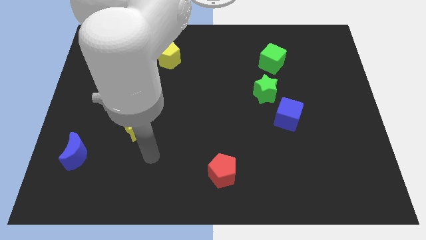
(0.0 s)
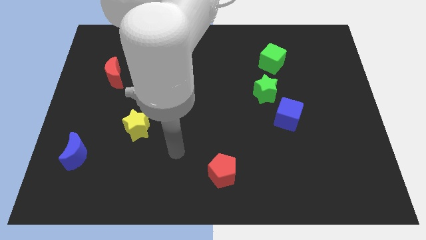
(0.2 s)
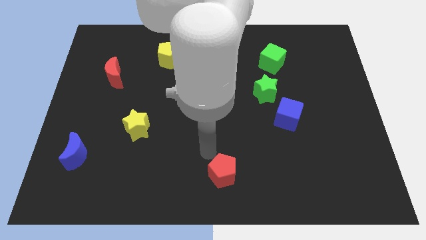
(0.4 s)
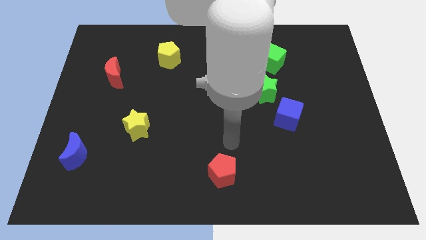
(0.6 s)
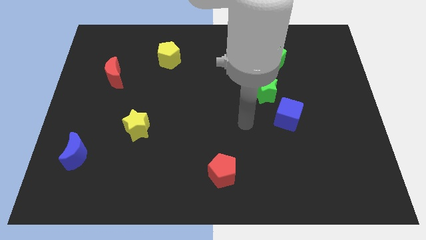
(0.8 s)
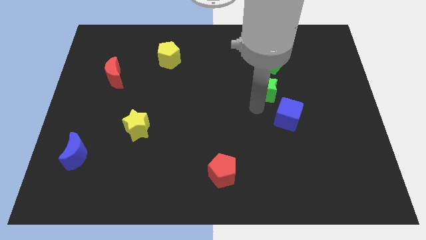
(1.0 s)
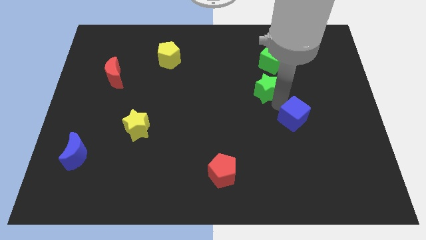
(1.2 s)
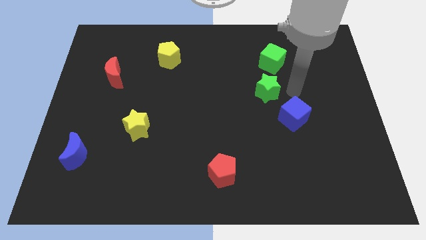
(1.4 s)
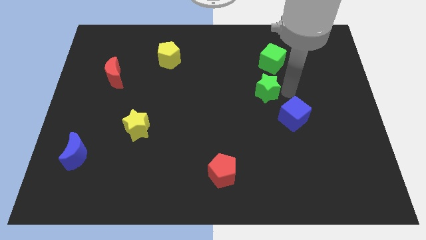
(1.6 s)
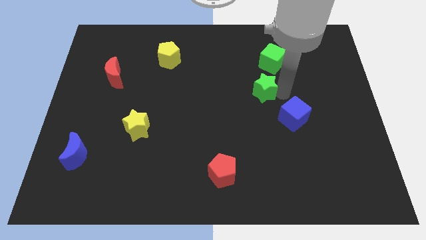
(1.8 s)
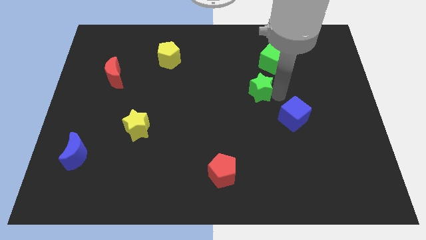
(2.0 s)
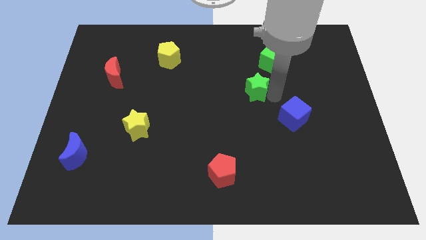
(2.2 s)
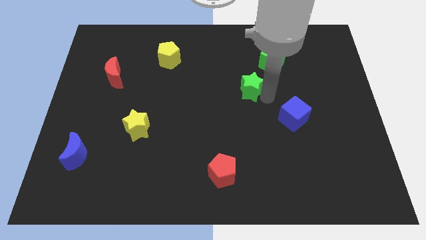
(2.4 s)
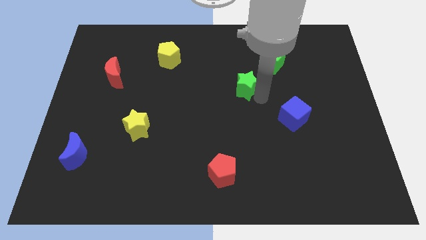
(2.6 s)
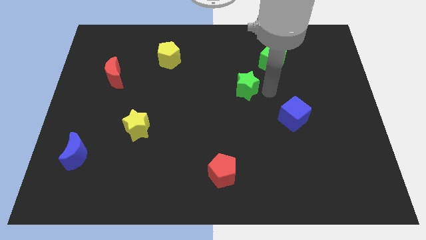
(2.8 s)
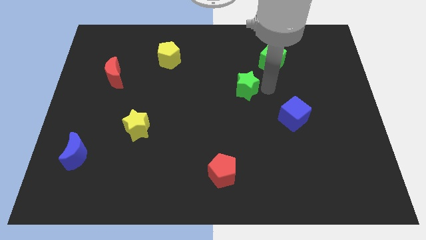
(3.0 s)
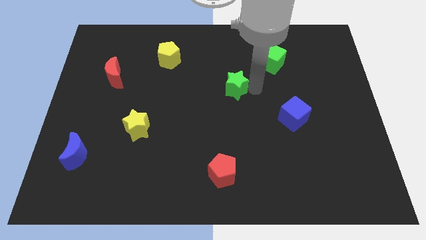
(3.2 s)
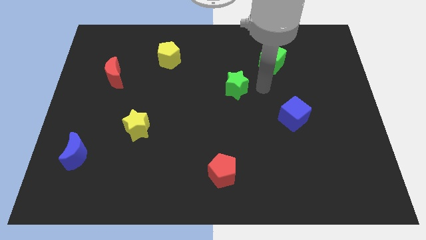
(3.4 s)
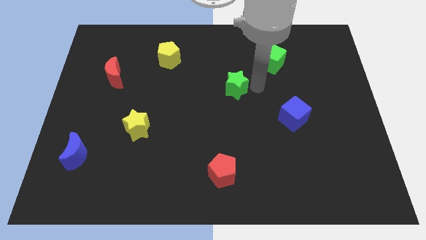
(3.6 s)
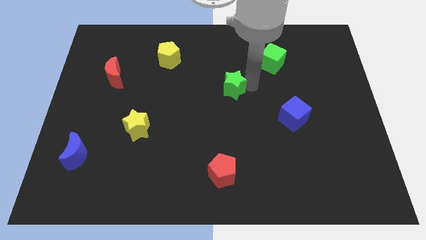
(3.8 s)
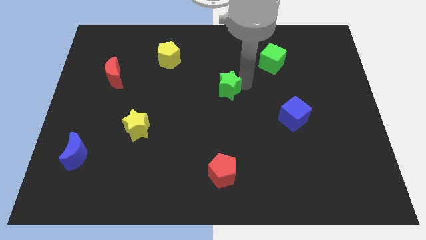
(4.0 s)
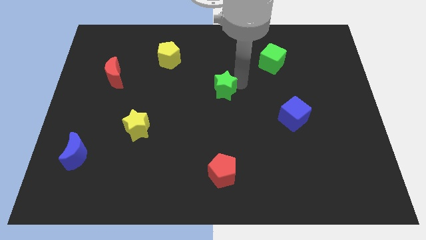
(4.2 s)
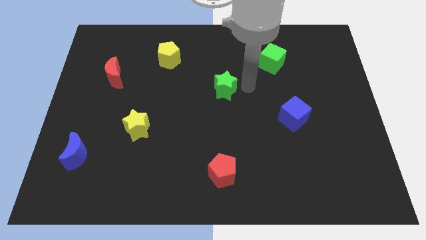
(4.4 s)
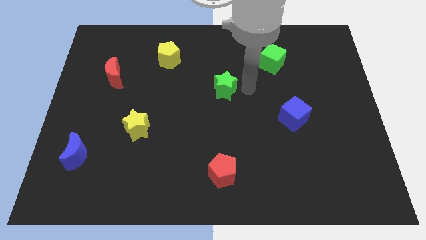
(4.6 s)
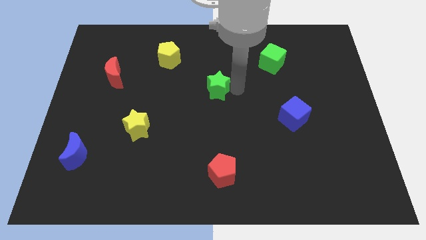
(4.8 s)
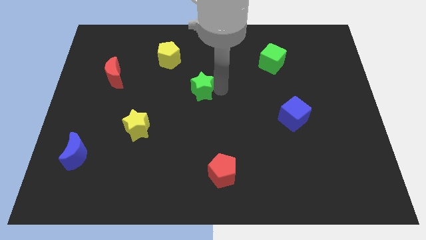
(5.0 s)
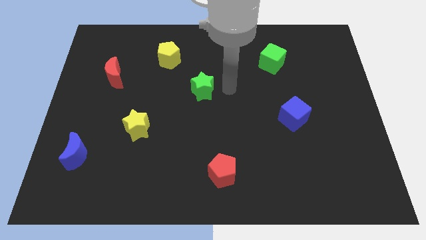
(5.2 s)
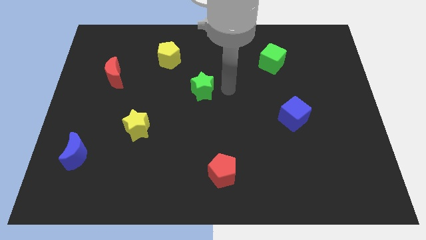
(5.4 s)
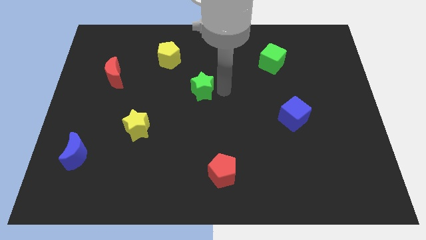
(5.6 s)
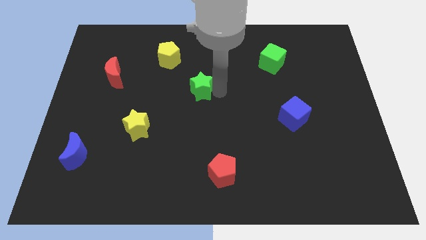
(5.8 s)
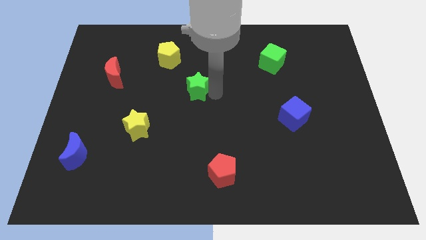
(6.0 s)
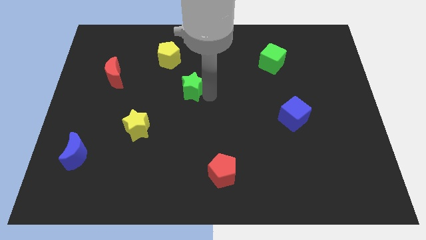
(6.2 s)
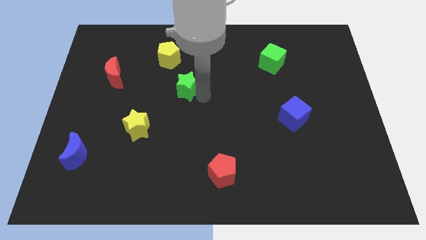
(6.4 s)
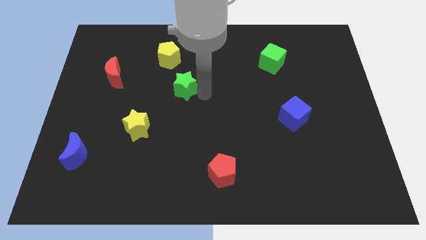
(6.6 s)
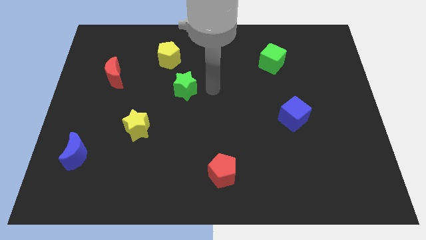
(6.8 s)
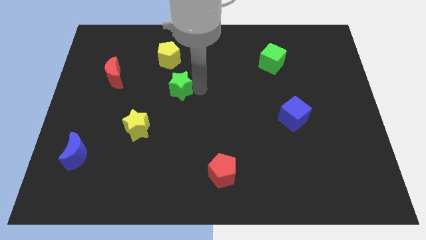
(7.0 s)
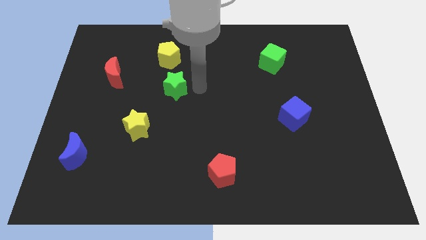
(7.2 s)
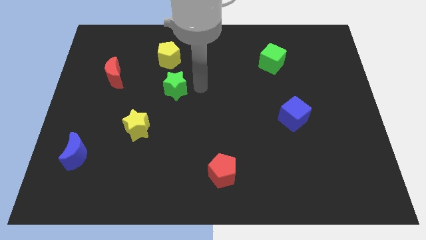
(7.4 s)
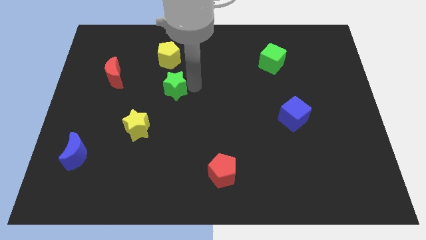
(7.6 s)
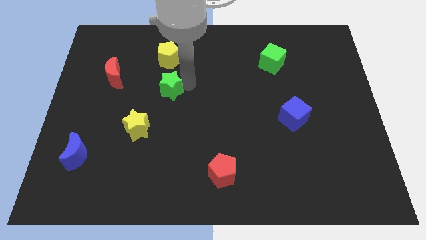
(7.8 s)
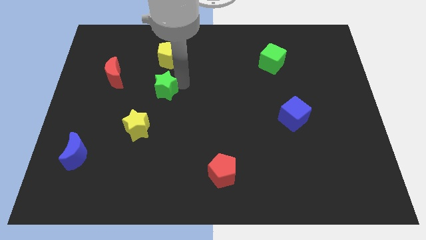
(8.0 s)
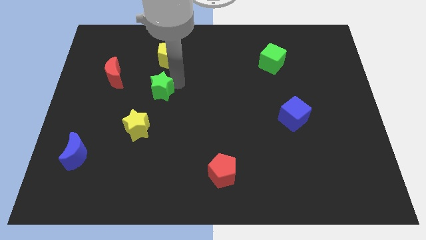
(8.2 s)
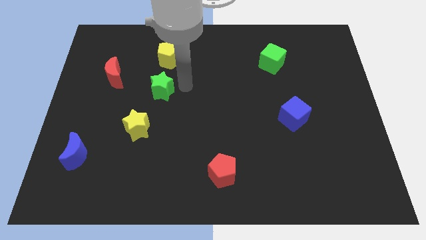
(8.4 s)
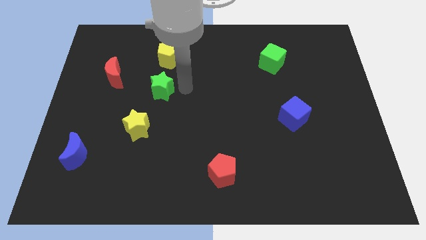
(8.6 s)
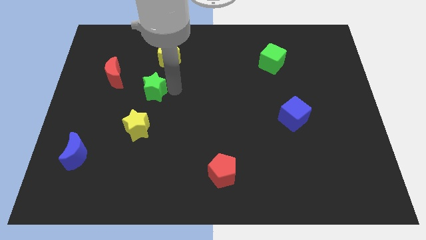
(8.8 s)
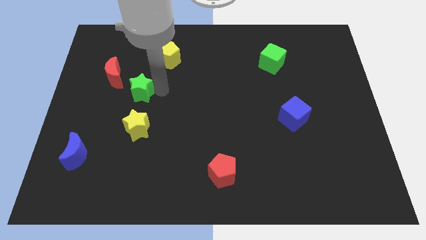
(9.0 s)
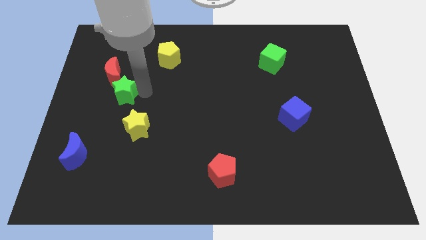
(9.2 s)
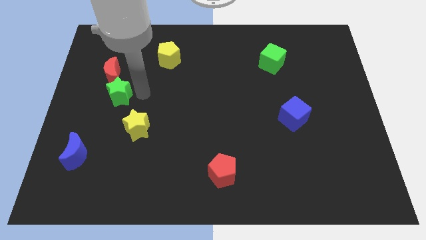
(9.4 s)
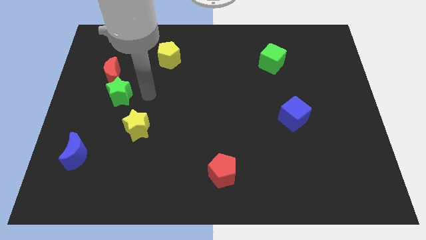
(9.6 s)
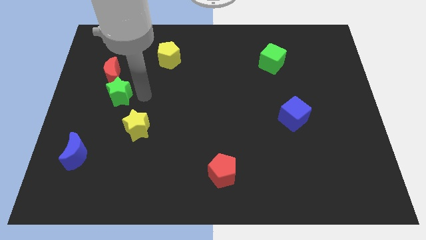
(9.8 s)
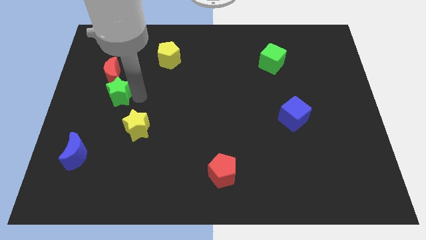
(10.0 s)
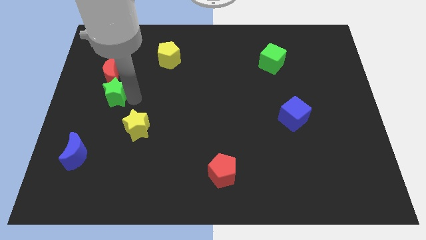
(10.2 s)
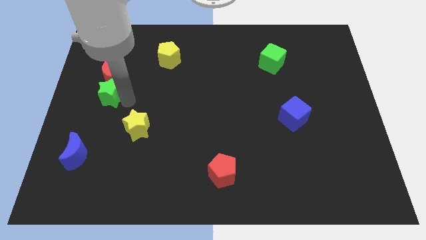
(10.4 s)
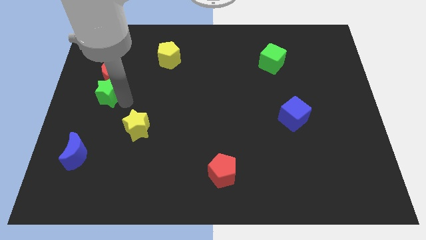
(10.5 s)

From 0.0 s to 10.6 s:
slide the green star to the left side

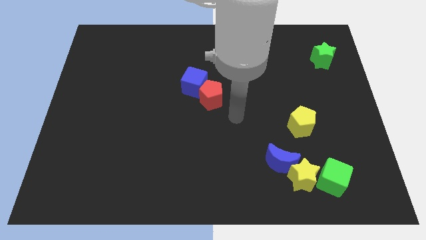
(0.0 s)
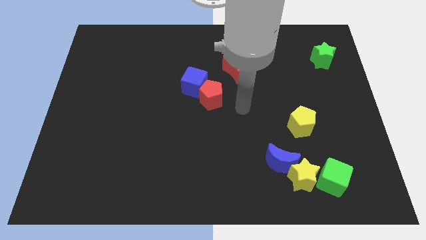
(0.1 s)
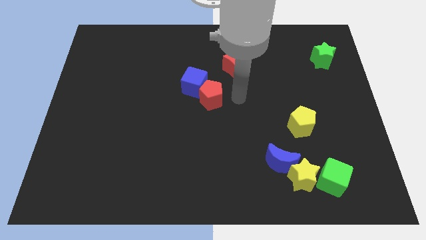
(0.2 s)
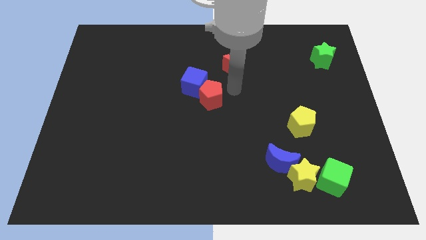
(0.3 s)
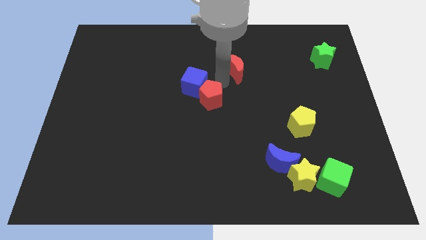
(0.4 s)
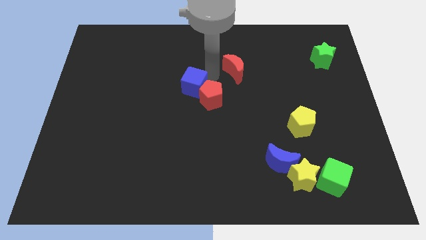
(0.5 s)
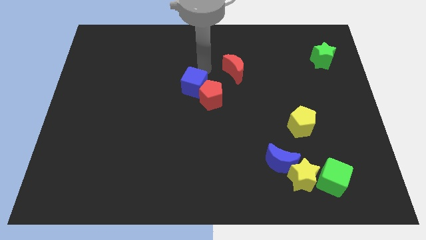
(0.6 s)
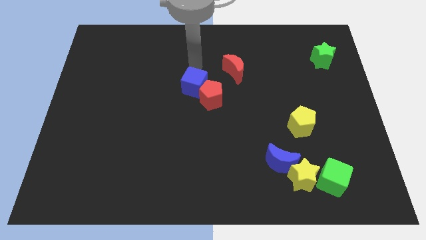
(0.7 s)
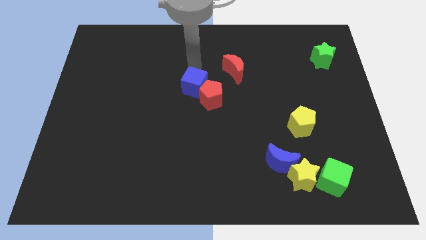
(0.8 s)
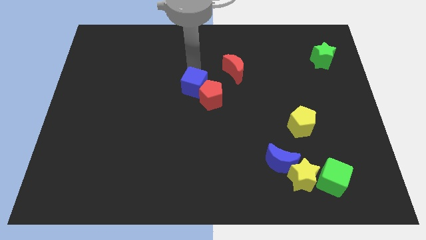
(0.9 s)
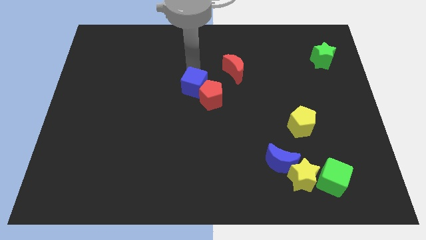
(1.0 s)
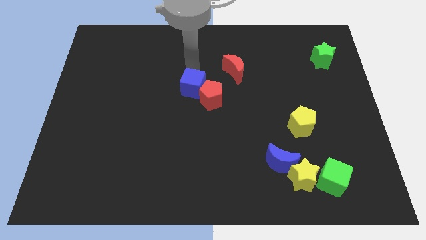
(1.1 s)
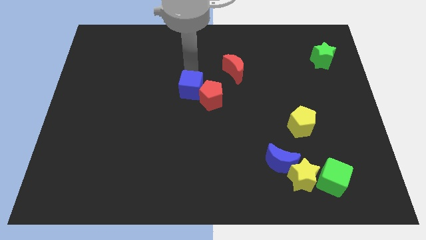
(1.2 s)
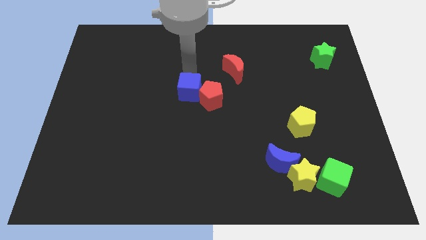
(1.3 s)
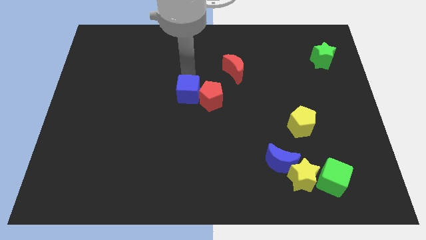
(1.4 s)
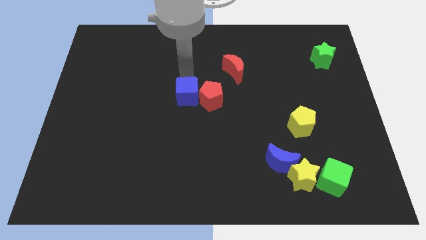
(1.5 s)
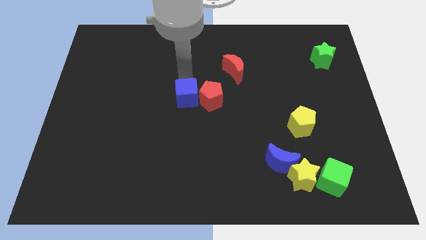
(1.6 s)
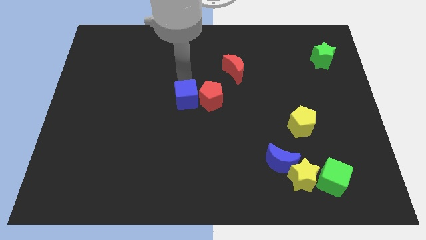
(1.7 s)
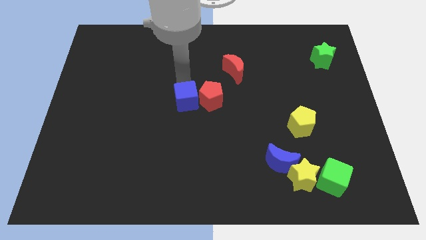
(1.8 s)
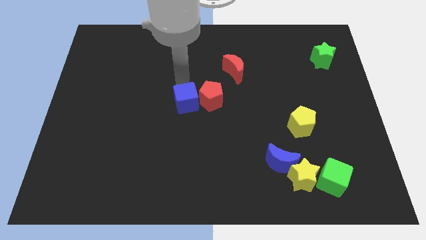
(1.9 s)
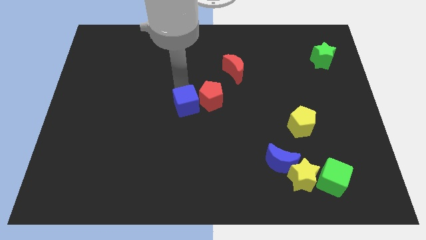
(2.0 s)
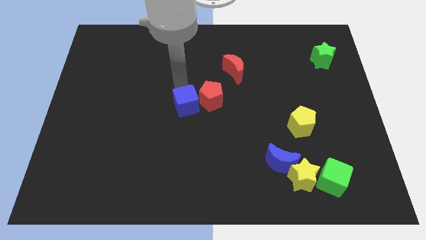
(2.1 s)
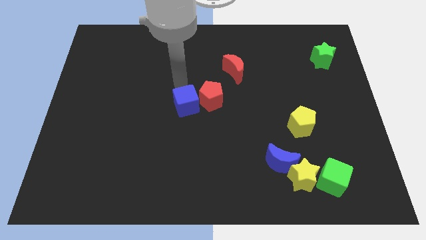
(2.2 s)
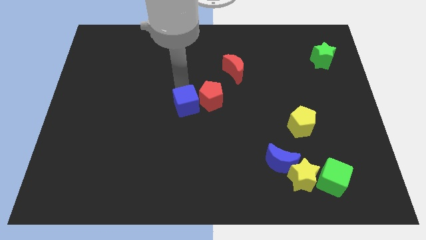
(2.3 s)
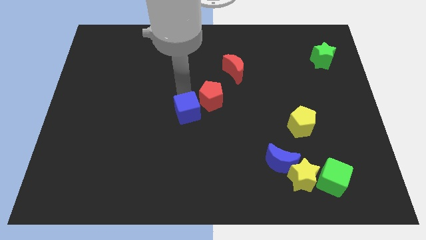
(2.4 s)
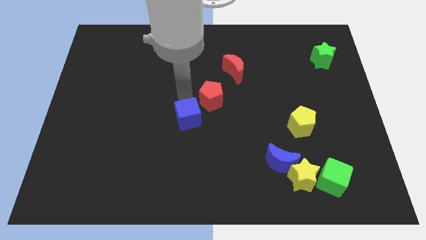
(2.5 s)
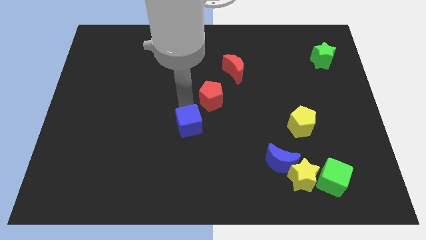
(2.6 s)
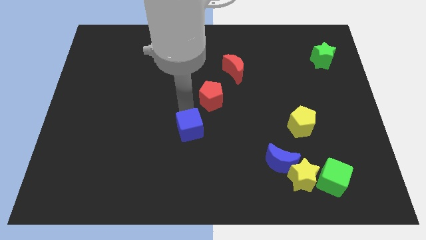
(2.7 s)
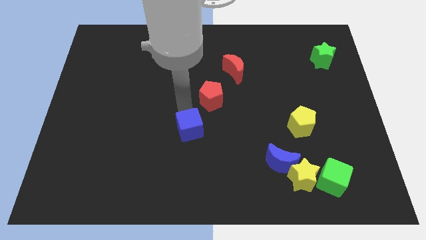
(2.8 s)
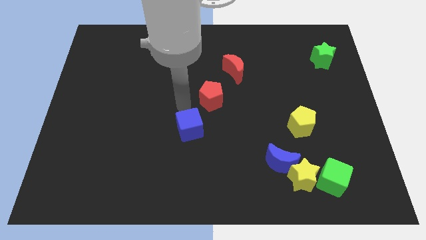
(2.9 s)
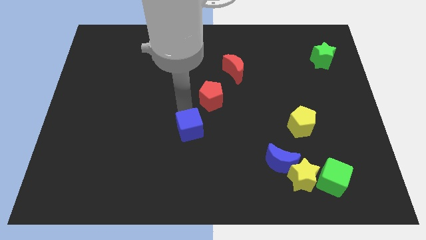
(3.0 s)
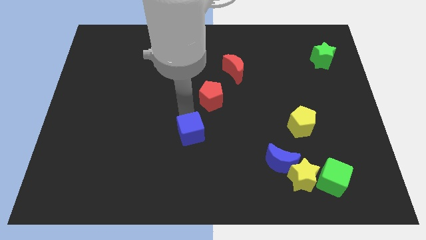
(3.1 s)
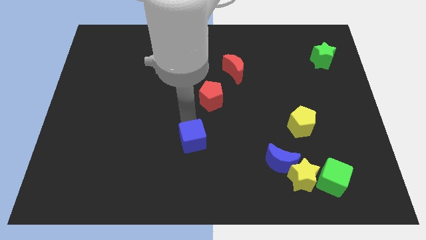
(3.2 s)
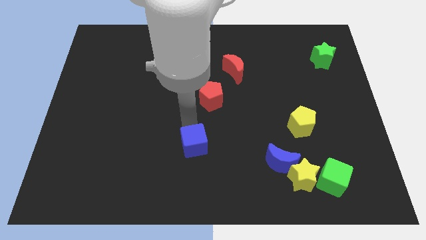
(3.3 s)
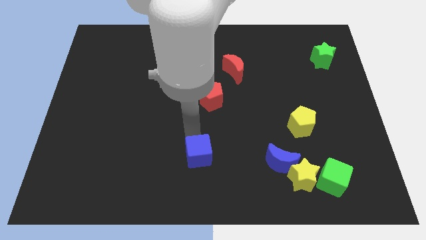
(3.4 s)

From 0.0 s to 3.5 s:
slide the blue cube to the bottom side
